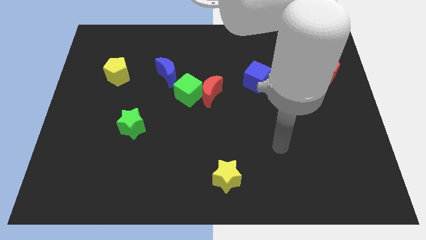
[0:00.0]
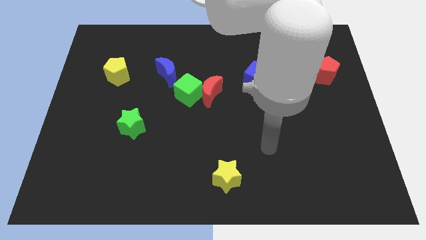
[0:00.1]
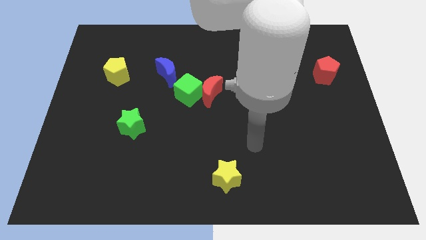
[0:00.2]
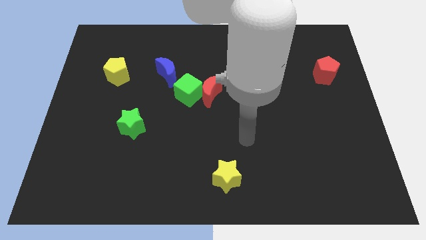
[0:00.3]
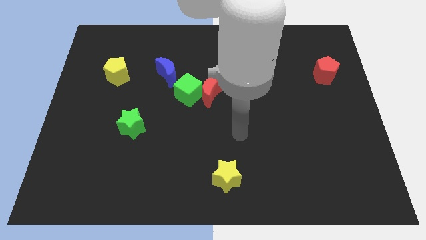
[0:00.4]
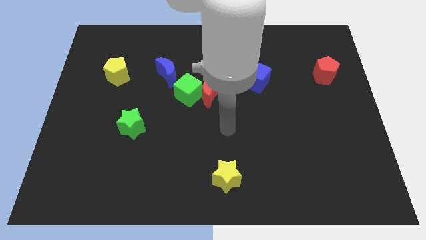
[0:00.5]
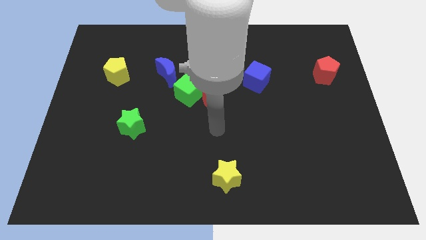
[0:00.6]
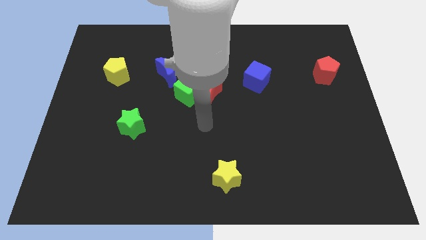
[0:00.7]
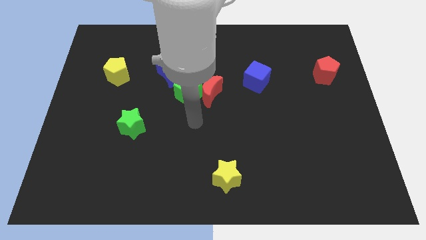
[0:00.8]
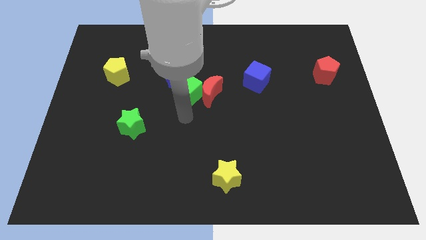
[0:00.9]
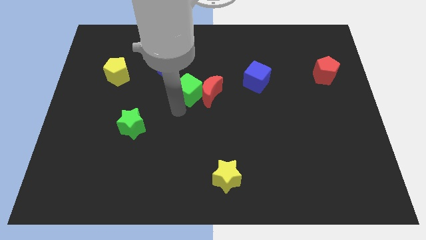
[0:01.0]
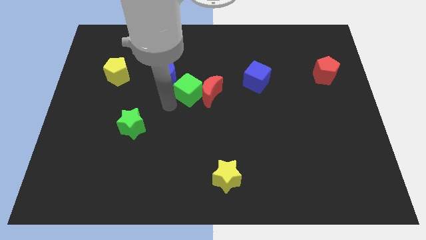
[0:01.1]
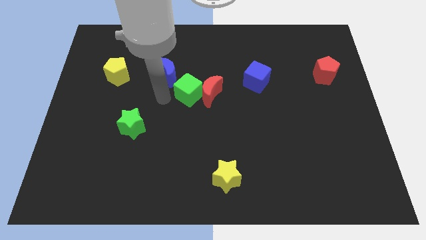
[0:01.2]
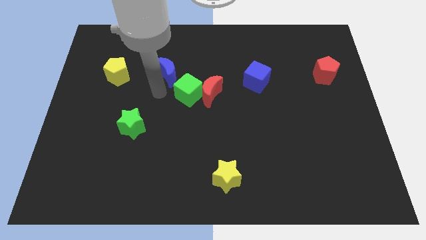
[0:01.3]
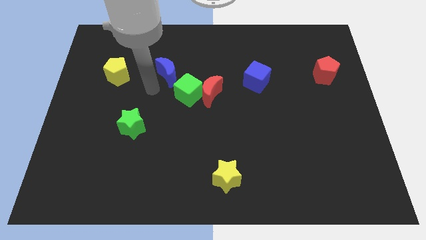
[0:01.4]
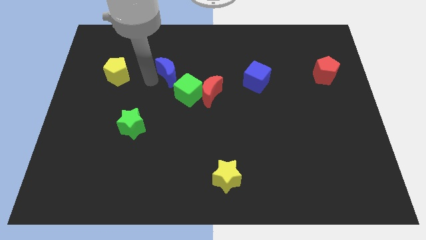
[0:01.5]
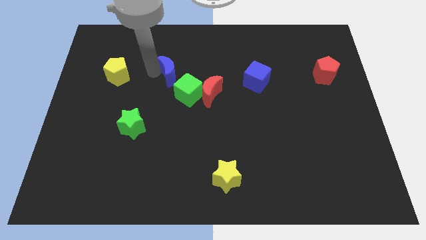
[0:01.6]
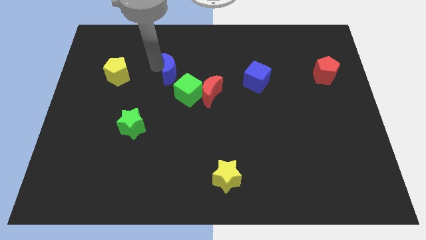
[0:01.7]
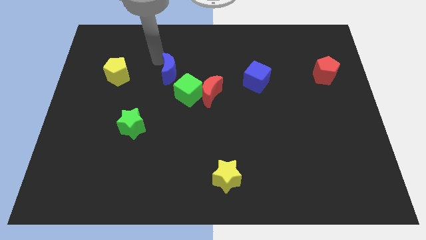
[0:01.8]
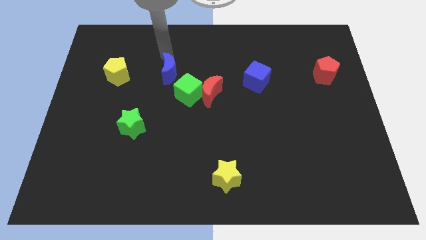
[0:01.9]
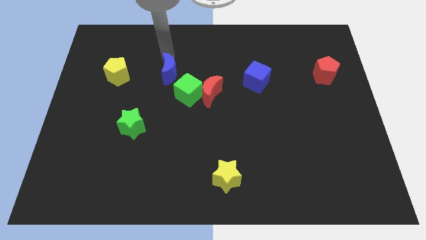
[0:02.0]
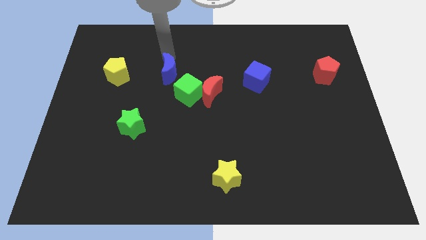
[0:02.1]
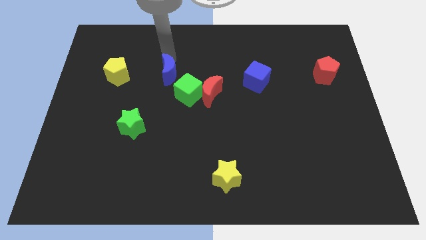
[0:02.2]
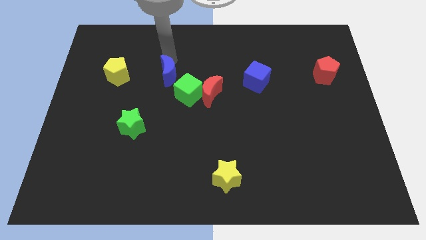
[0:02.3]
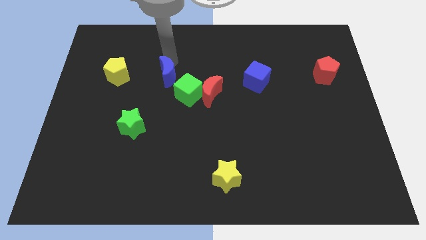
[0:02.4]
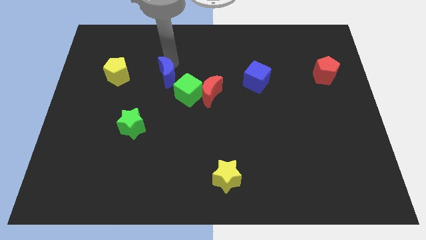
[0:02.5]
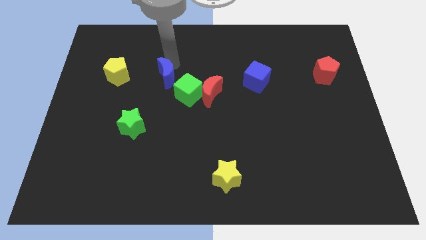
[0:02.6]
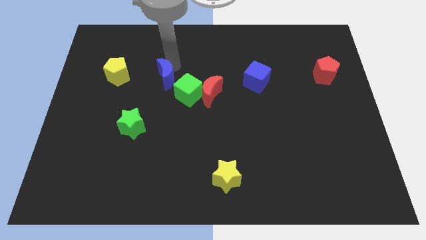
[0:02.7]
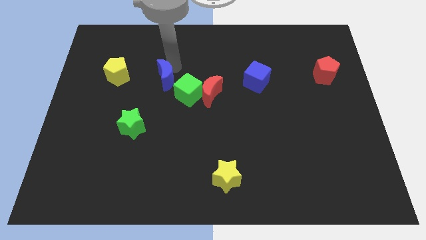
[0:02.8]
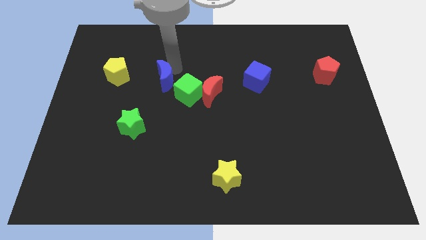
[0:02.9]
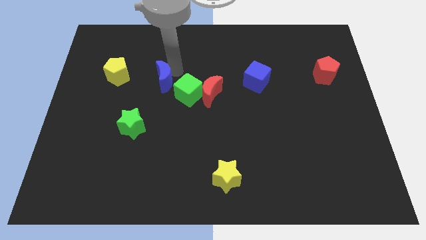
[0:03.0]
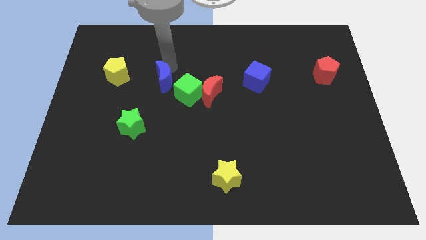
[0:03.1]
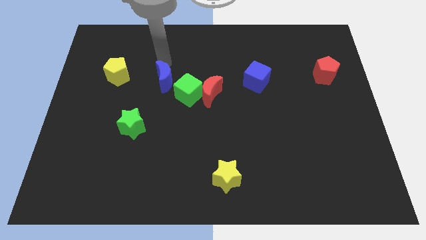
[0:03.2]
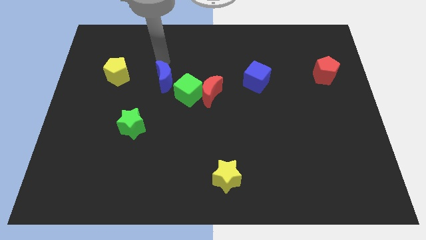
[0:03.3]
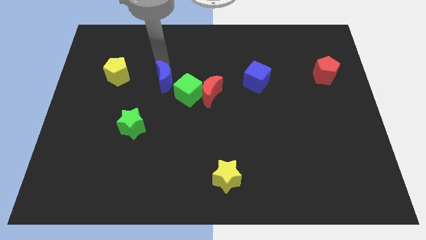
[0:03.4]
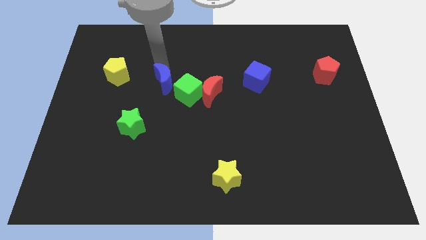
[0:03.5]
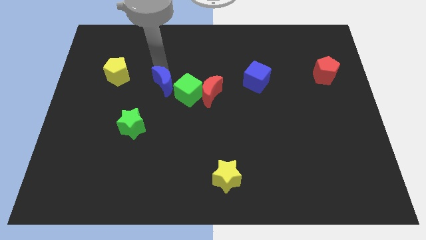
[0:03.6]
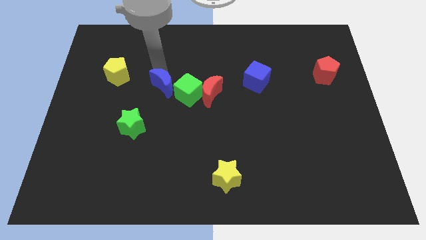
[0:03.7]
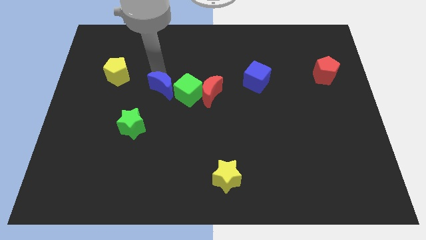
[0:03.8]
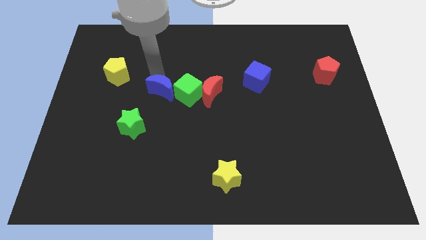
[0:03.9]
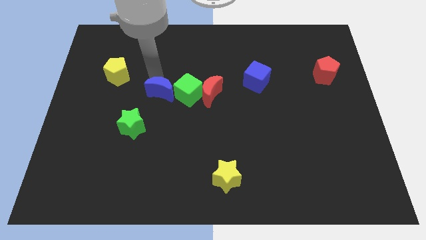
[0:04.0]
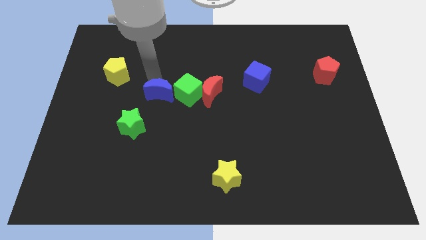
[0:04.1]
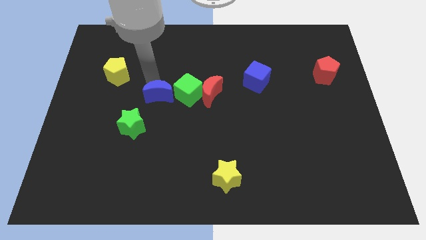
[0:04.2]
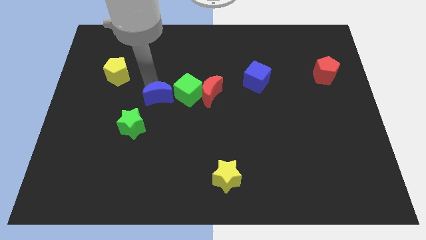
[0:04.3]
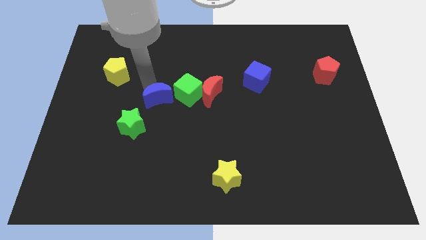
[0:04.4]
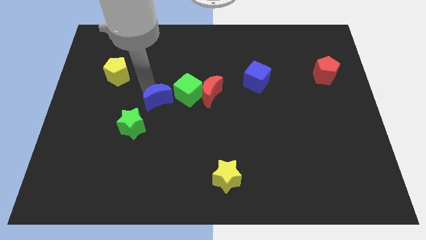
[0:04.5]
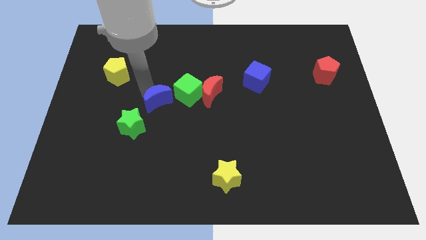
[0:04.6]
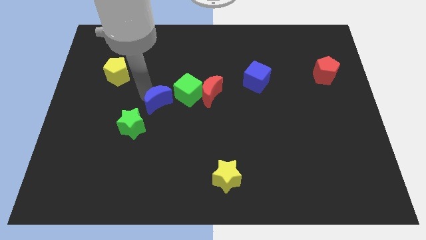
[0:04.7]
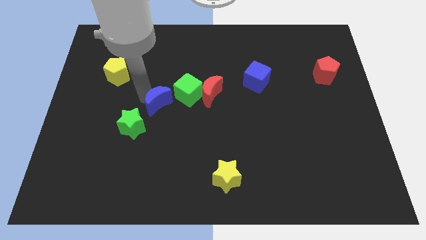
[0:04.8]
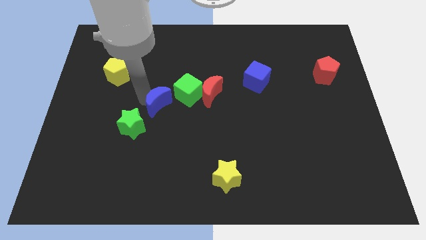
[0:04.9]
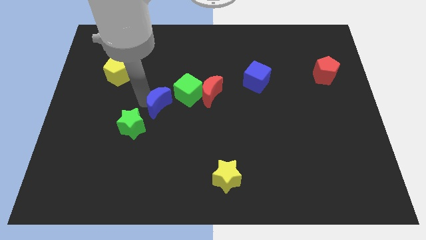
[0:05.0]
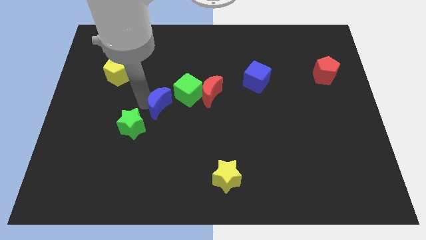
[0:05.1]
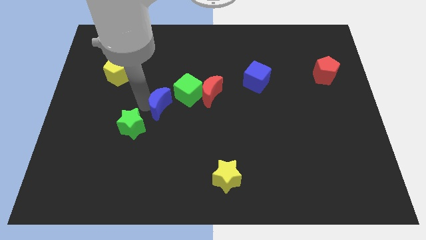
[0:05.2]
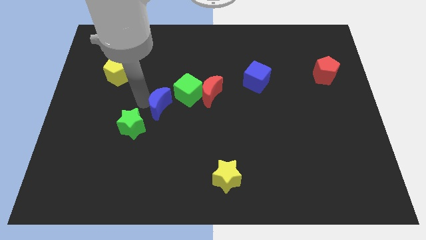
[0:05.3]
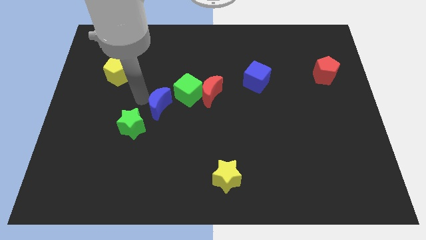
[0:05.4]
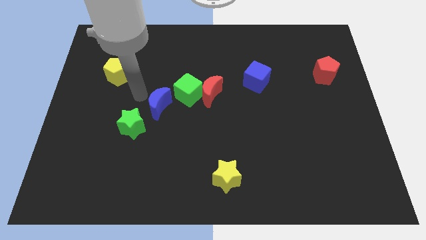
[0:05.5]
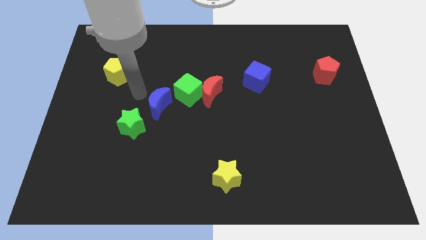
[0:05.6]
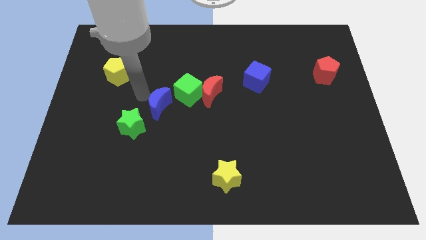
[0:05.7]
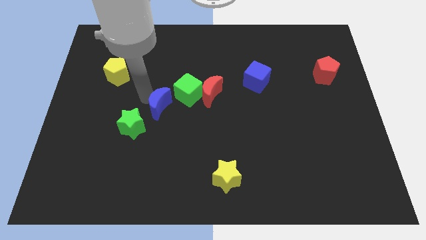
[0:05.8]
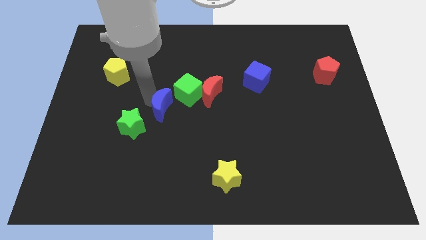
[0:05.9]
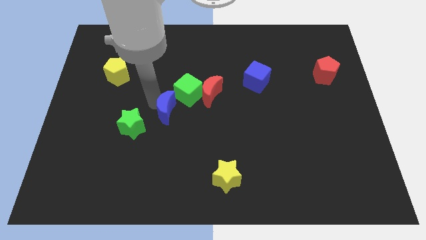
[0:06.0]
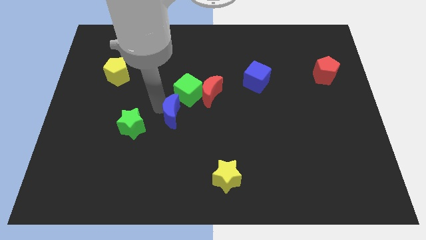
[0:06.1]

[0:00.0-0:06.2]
push the blue moon slightly down and right diagonally

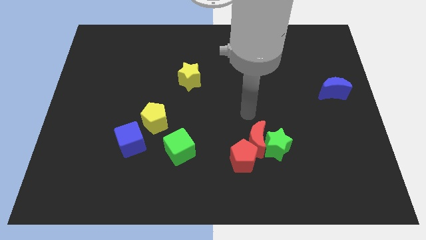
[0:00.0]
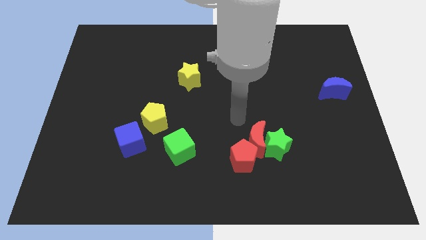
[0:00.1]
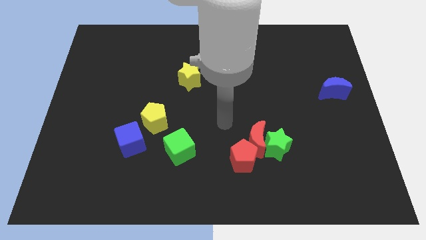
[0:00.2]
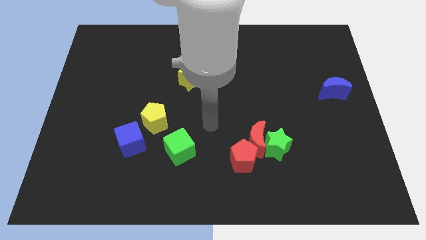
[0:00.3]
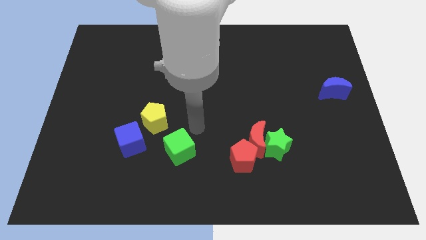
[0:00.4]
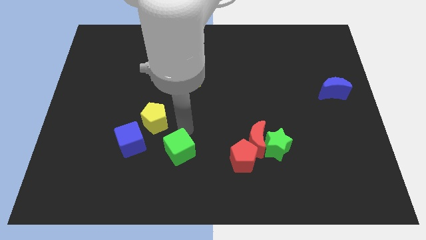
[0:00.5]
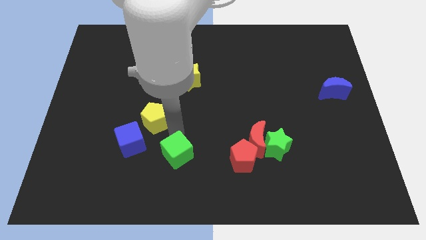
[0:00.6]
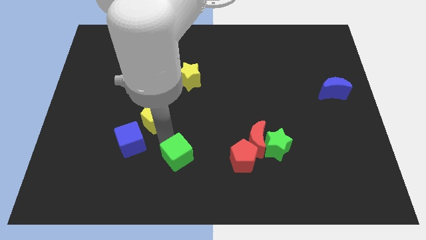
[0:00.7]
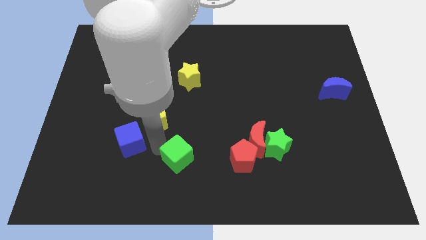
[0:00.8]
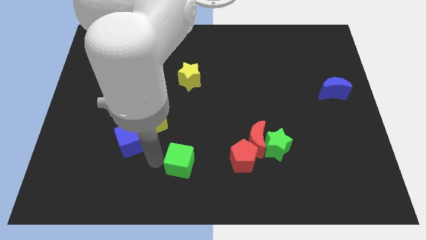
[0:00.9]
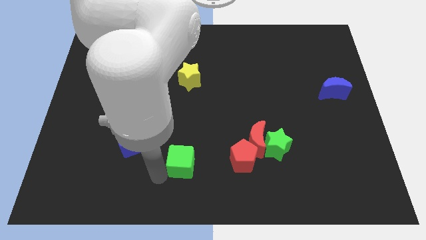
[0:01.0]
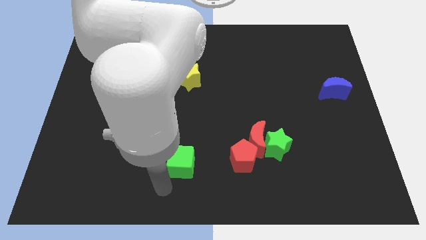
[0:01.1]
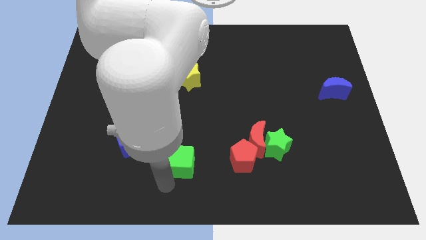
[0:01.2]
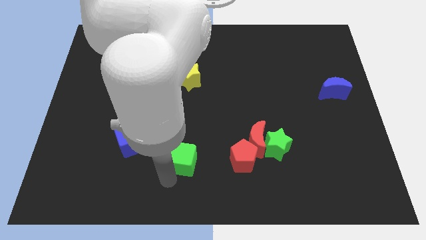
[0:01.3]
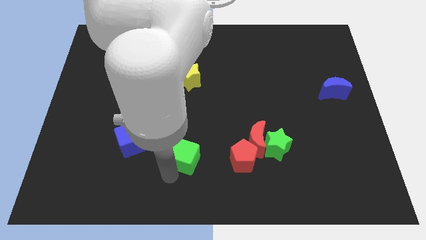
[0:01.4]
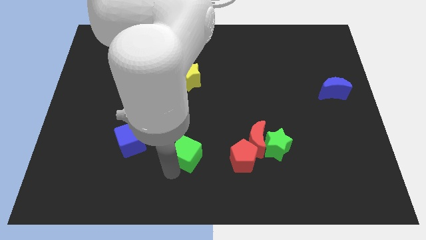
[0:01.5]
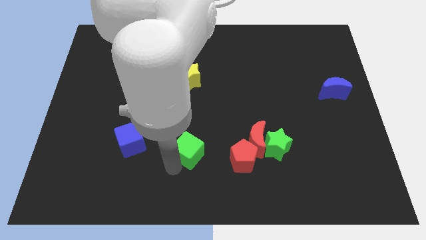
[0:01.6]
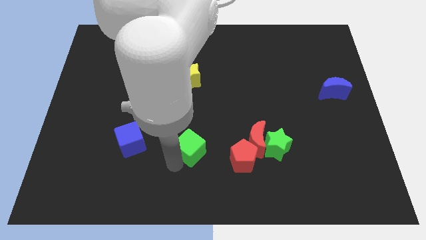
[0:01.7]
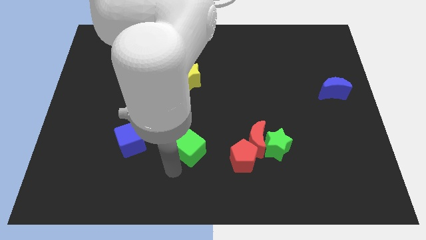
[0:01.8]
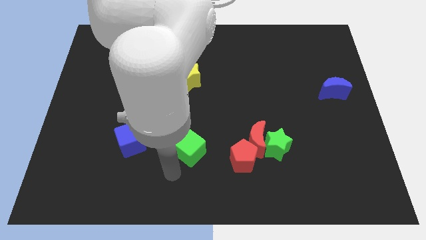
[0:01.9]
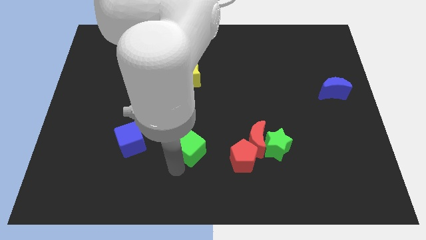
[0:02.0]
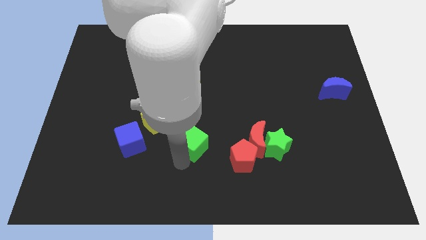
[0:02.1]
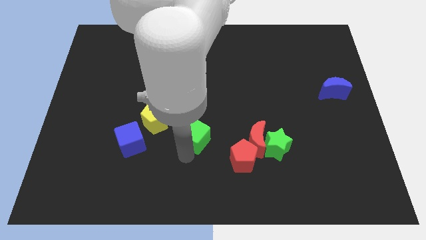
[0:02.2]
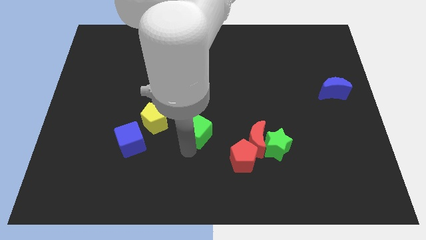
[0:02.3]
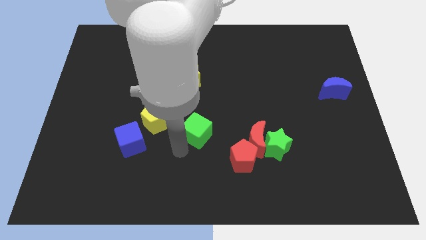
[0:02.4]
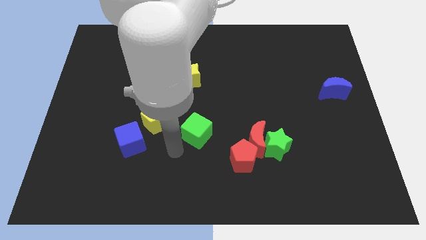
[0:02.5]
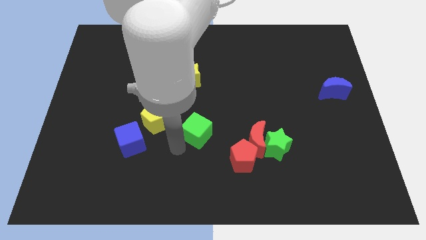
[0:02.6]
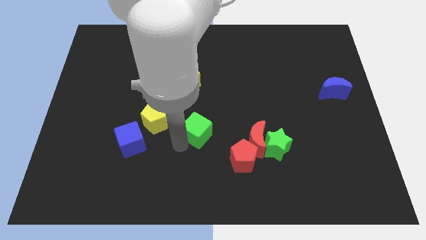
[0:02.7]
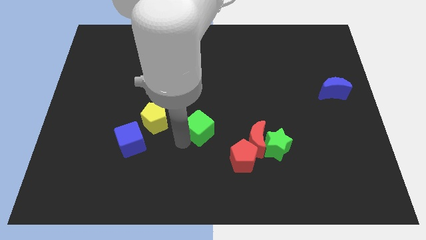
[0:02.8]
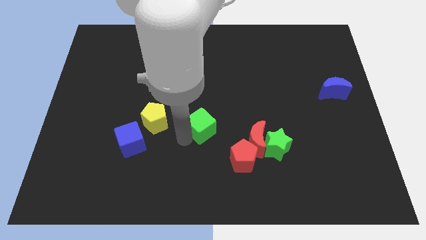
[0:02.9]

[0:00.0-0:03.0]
slide the green cube upwards and to the right a bit
